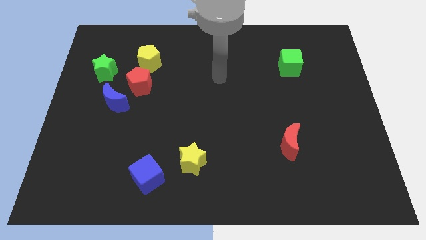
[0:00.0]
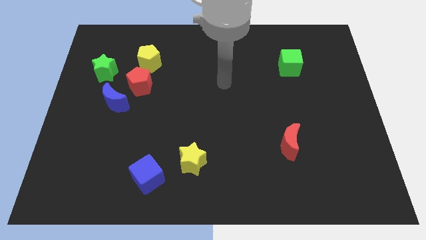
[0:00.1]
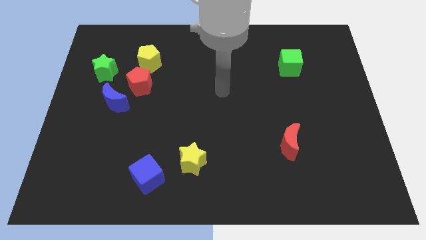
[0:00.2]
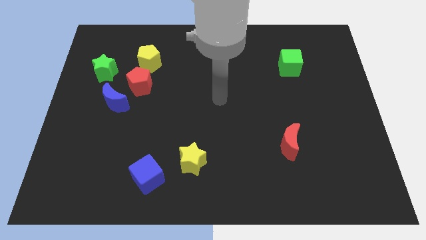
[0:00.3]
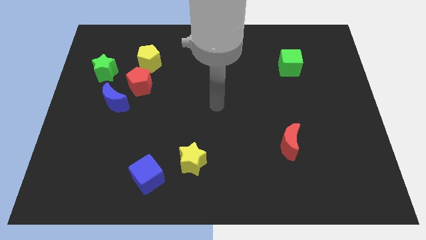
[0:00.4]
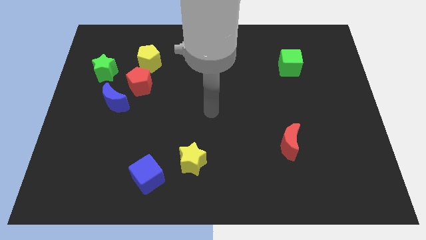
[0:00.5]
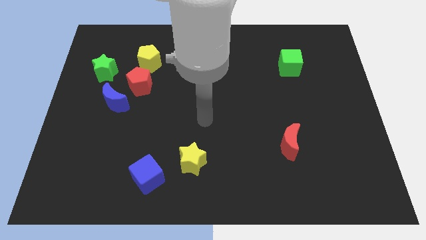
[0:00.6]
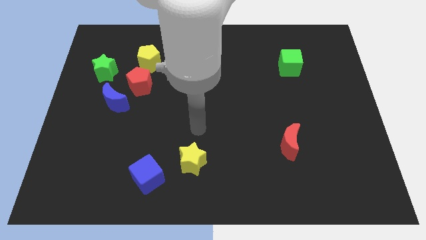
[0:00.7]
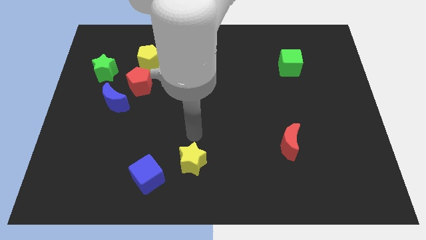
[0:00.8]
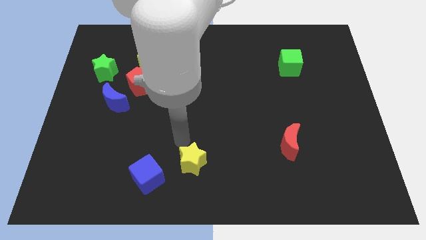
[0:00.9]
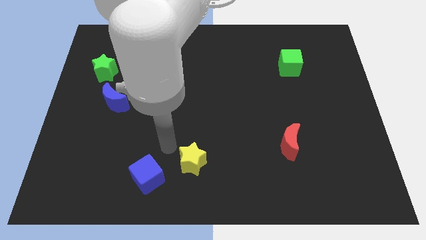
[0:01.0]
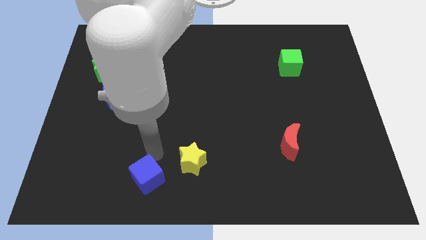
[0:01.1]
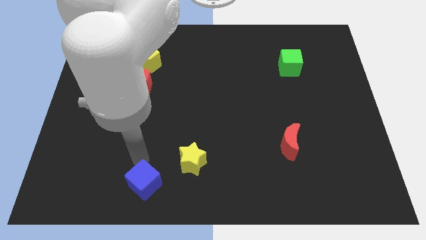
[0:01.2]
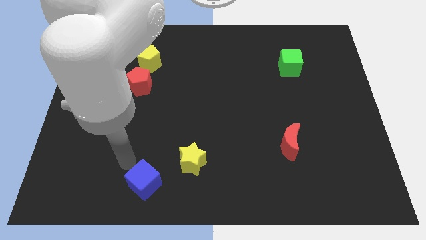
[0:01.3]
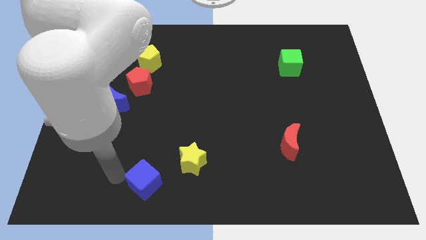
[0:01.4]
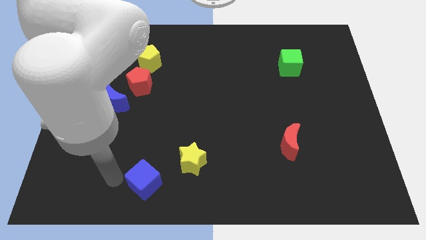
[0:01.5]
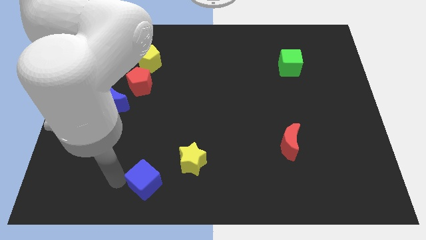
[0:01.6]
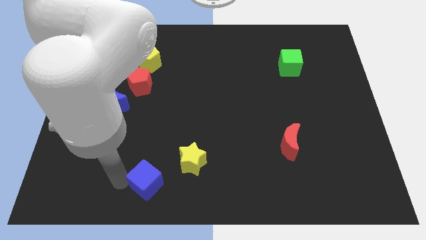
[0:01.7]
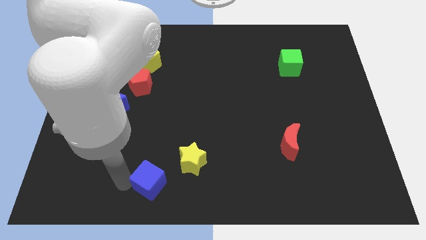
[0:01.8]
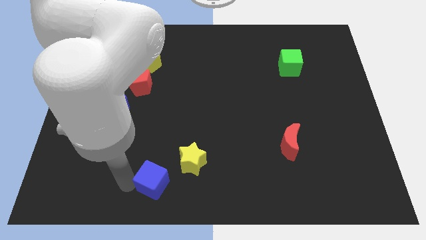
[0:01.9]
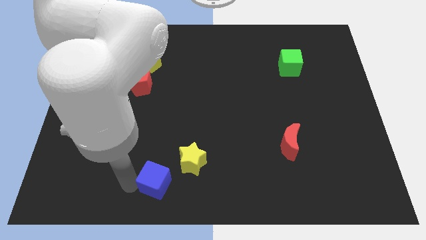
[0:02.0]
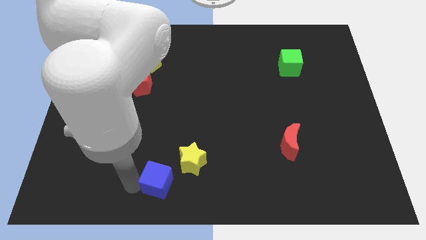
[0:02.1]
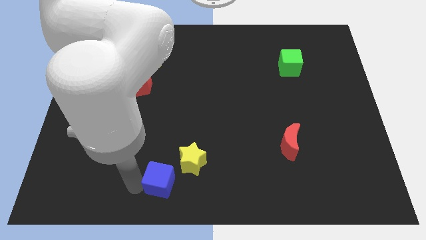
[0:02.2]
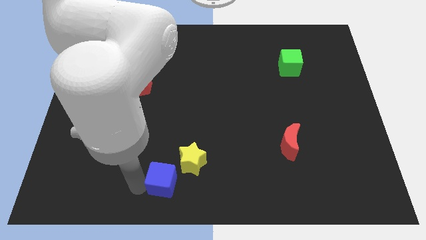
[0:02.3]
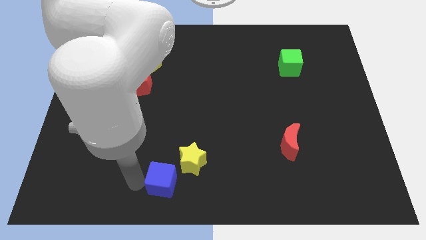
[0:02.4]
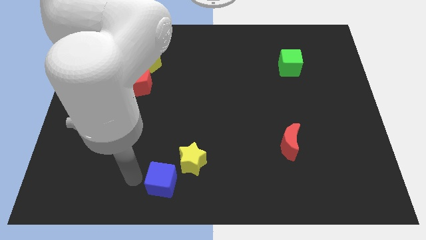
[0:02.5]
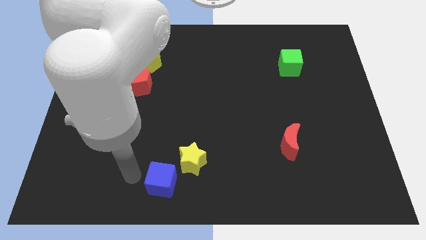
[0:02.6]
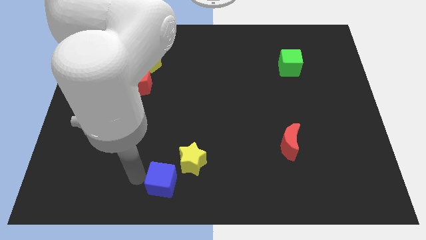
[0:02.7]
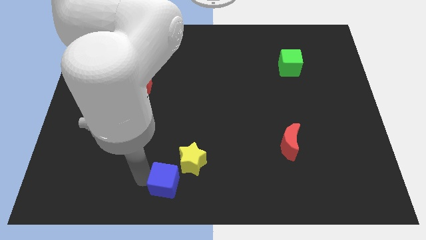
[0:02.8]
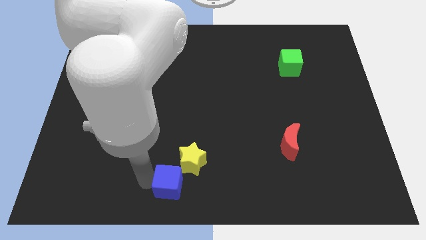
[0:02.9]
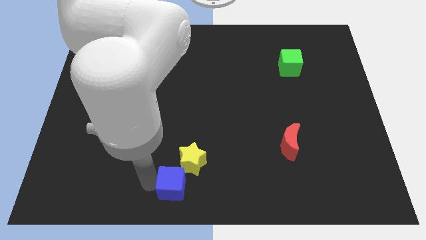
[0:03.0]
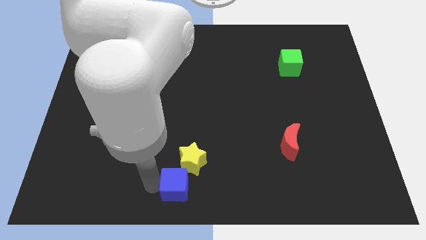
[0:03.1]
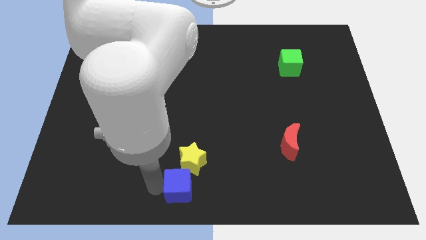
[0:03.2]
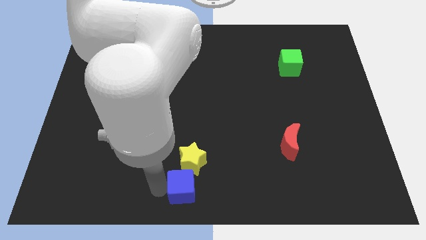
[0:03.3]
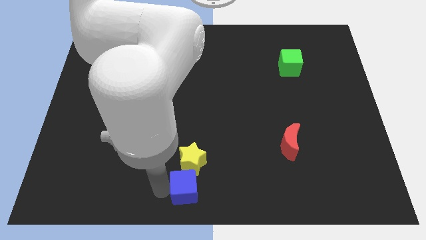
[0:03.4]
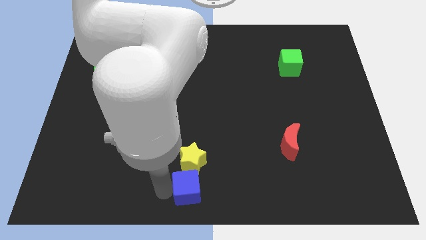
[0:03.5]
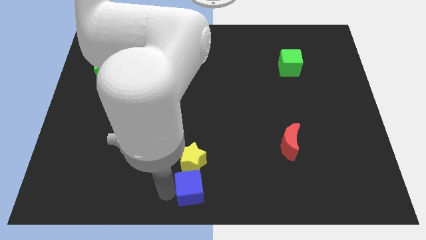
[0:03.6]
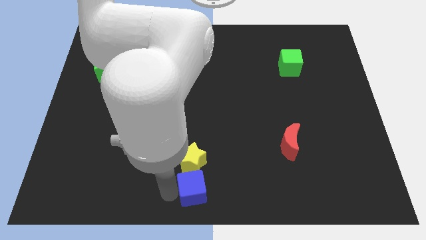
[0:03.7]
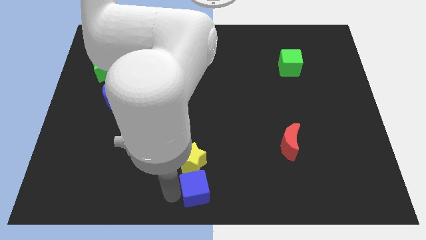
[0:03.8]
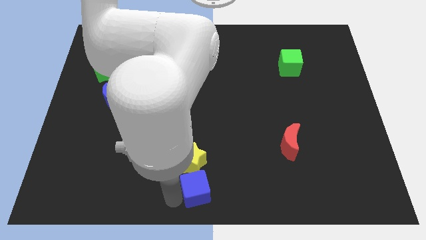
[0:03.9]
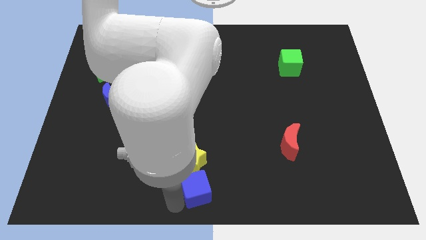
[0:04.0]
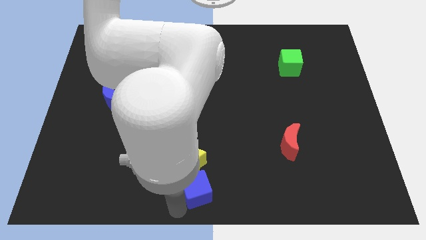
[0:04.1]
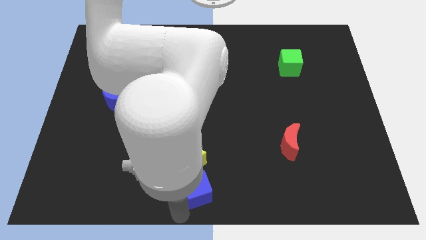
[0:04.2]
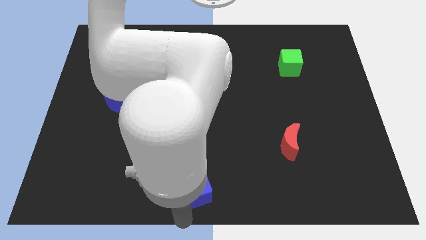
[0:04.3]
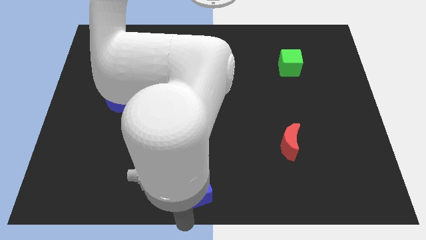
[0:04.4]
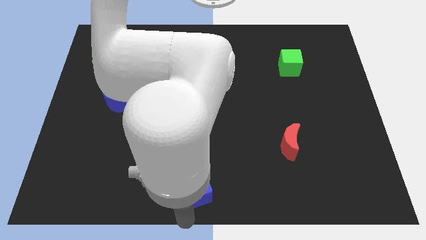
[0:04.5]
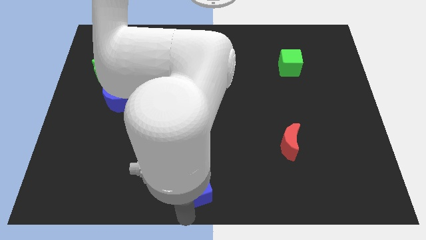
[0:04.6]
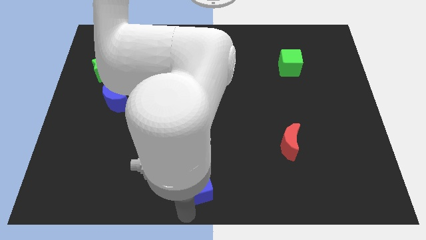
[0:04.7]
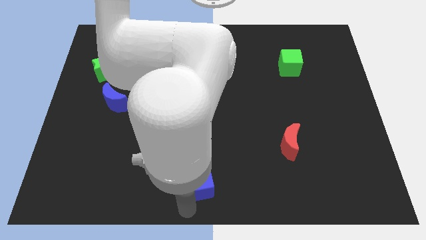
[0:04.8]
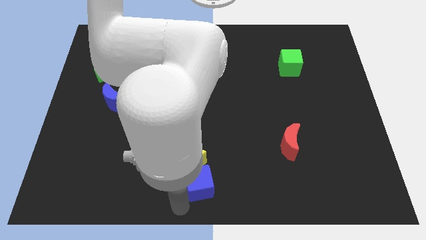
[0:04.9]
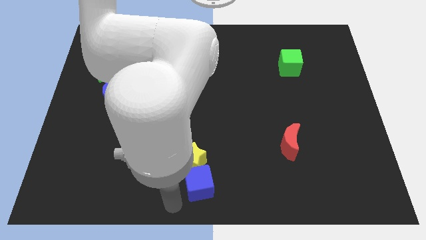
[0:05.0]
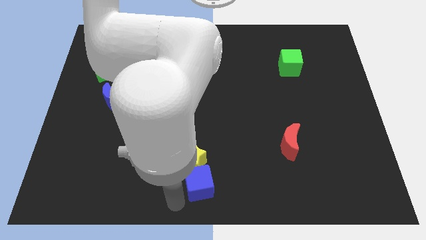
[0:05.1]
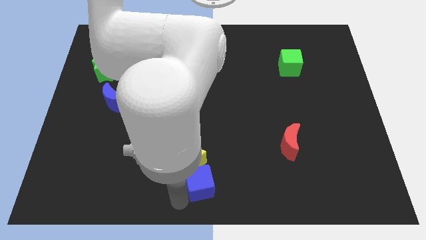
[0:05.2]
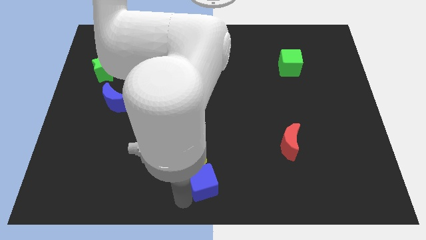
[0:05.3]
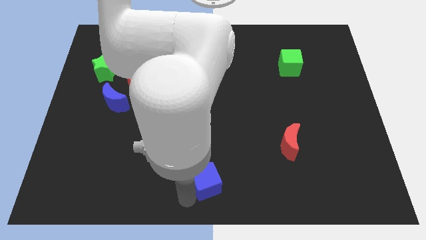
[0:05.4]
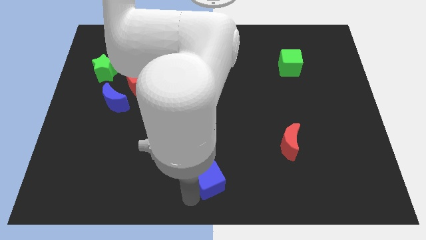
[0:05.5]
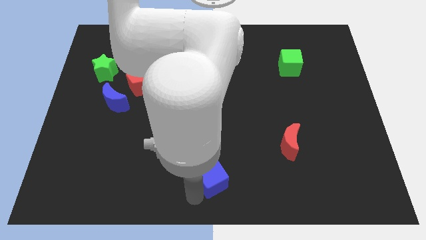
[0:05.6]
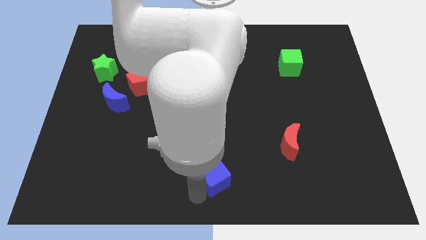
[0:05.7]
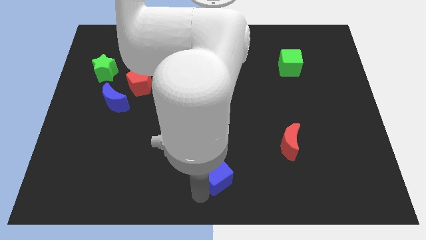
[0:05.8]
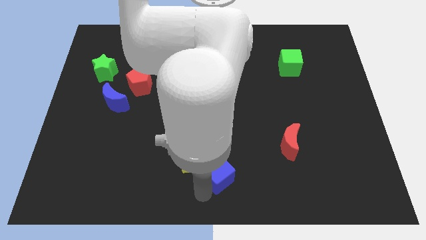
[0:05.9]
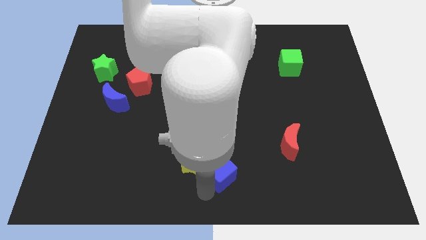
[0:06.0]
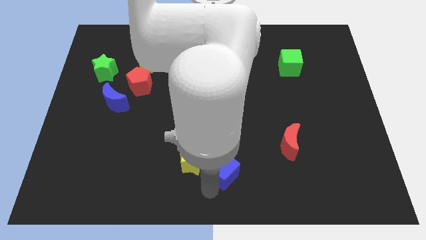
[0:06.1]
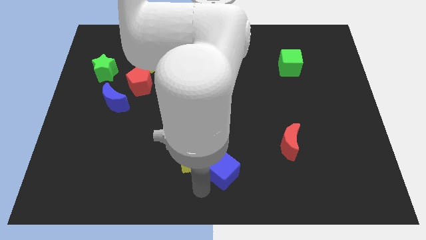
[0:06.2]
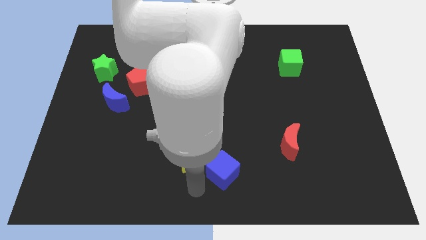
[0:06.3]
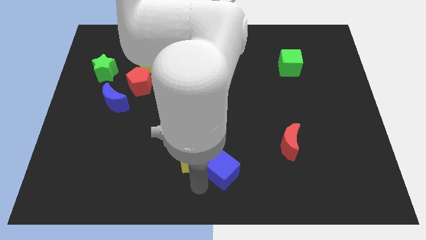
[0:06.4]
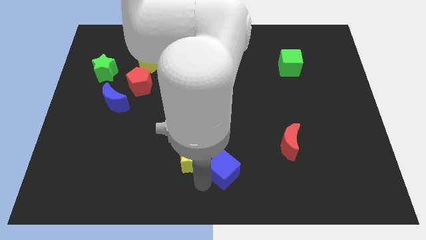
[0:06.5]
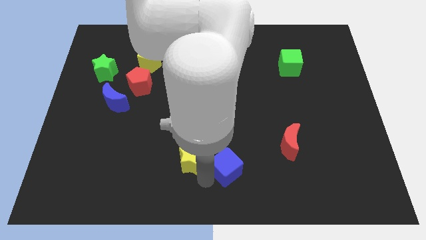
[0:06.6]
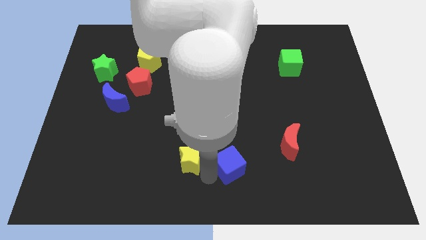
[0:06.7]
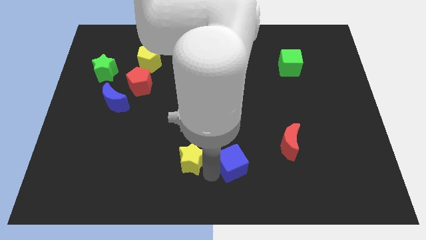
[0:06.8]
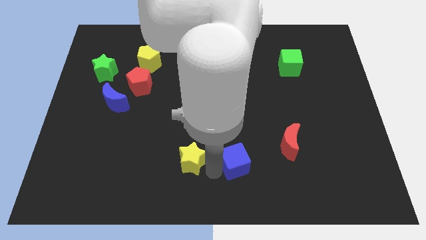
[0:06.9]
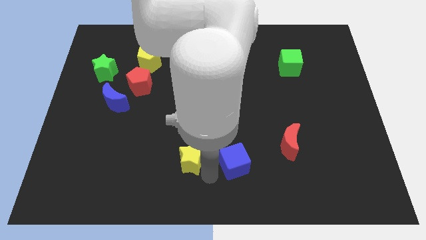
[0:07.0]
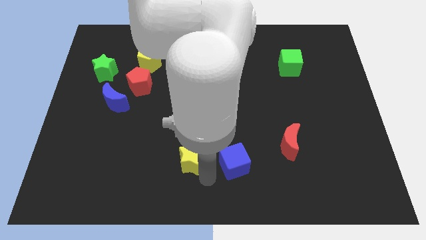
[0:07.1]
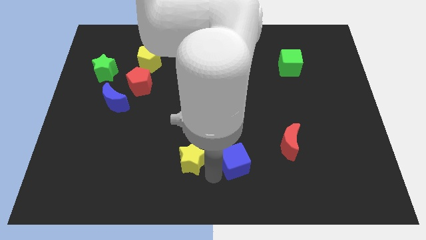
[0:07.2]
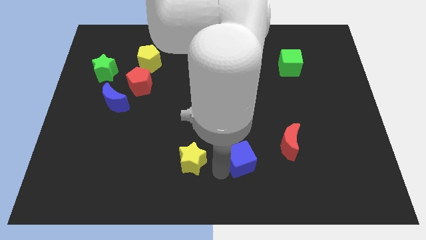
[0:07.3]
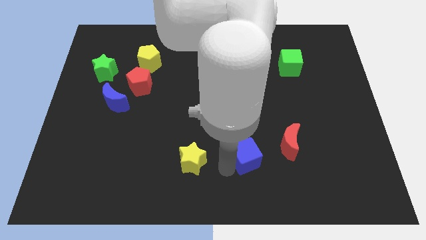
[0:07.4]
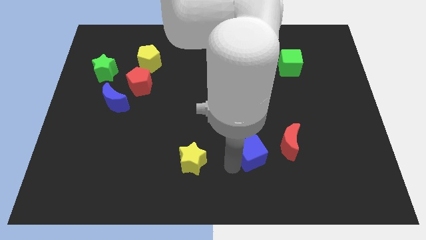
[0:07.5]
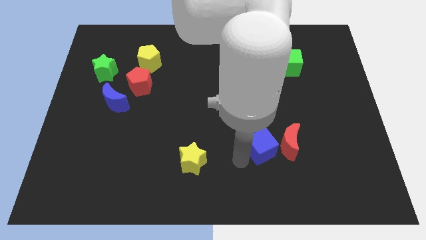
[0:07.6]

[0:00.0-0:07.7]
push the blue cube close to the red moon
